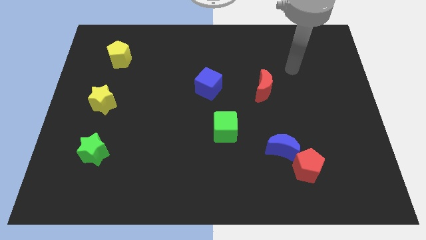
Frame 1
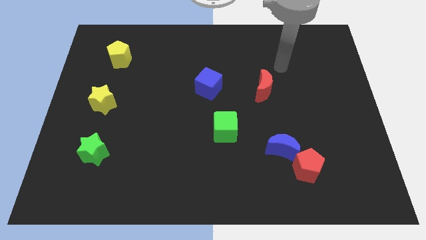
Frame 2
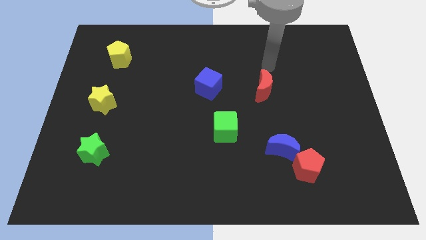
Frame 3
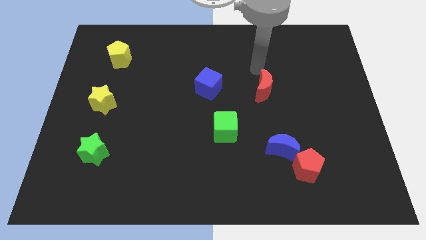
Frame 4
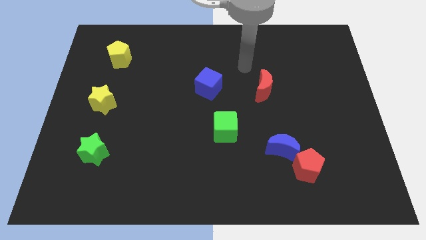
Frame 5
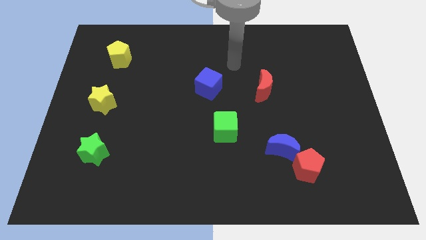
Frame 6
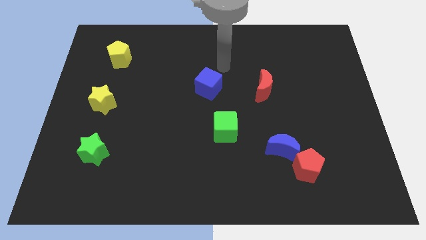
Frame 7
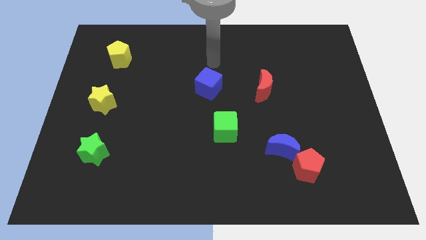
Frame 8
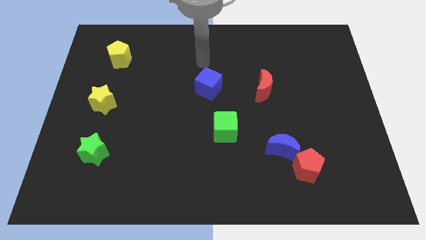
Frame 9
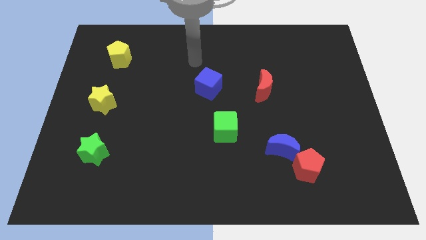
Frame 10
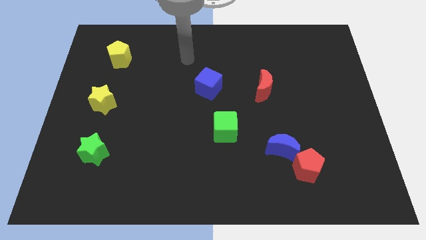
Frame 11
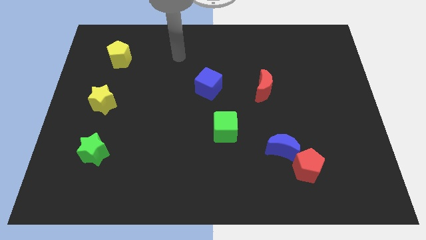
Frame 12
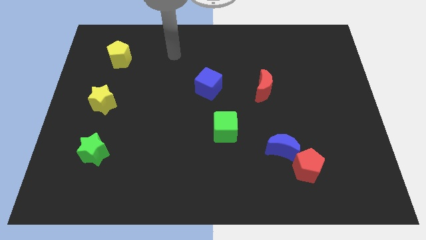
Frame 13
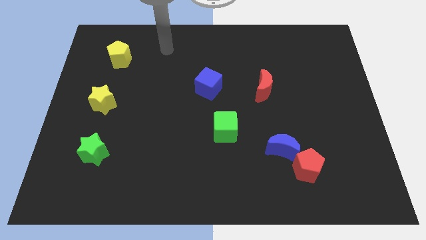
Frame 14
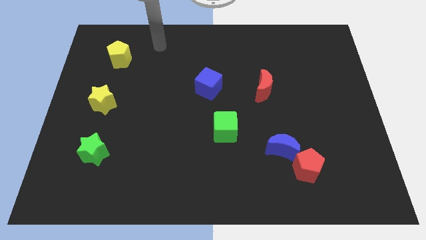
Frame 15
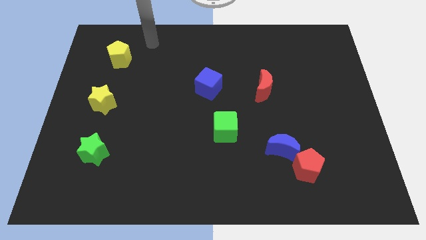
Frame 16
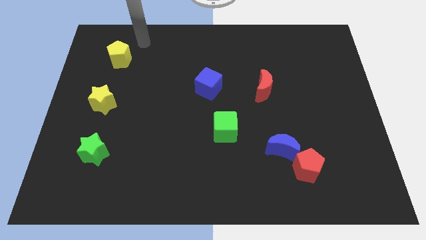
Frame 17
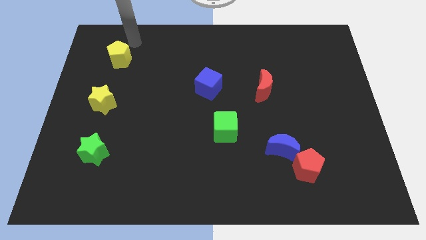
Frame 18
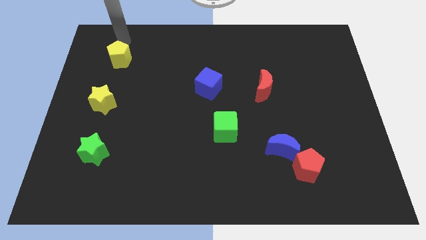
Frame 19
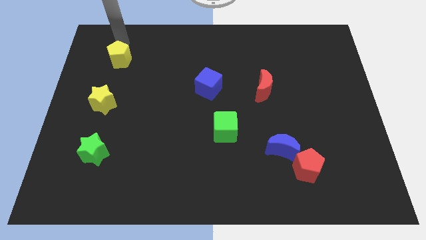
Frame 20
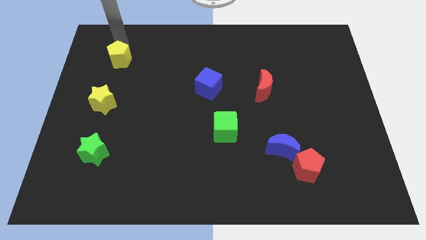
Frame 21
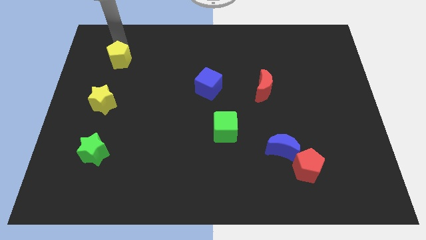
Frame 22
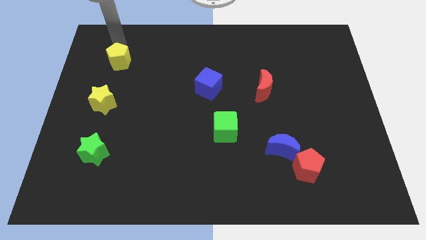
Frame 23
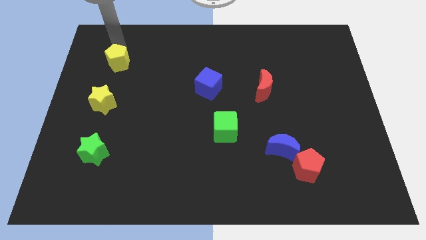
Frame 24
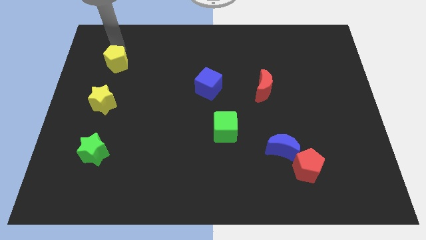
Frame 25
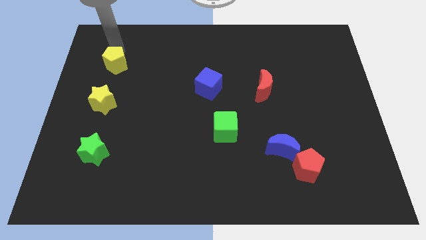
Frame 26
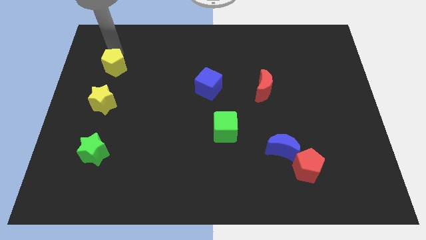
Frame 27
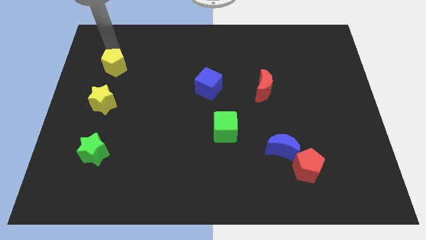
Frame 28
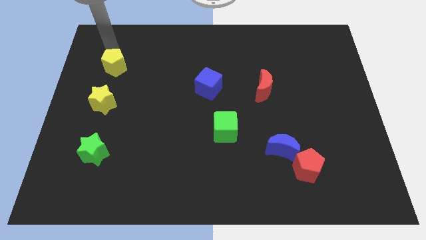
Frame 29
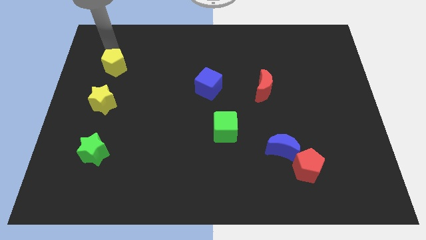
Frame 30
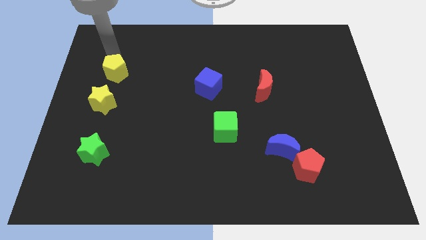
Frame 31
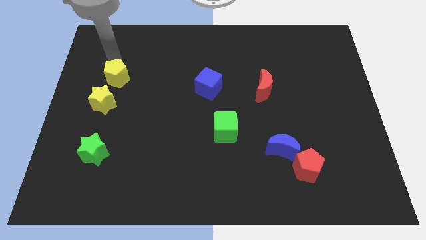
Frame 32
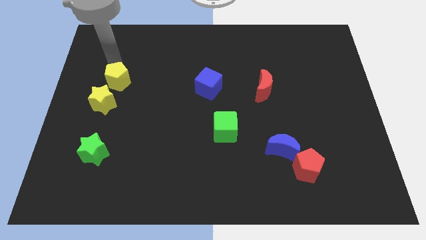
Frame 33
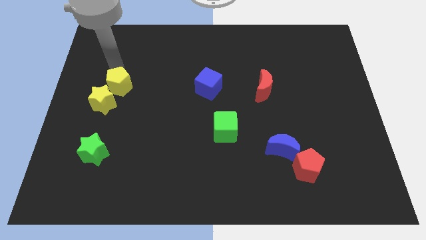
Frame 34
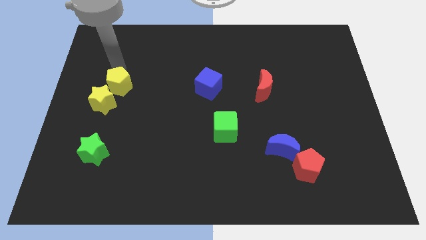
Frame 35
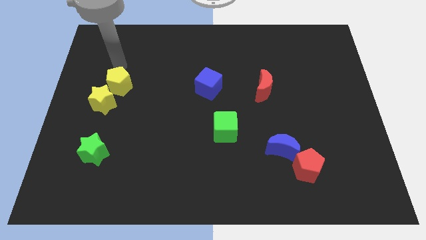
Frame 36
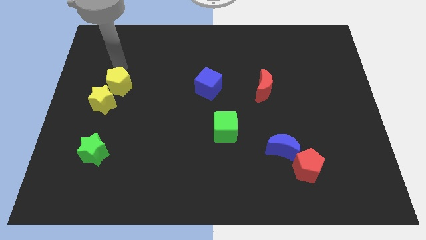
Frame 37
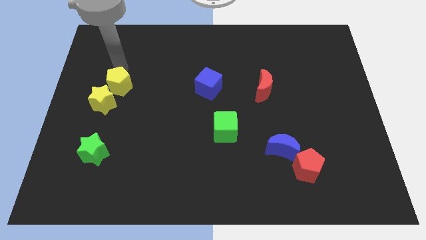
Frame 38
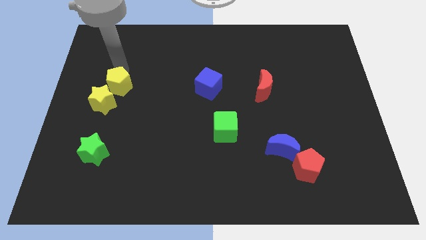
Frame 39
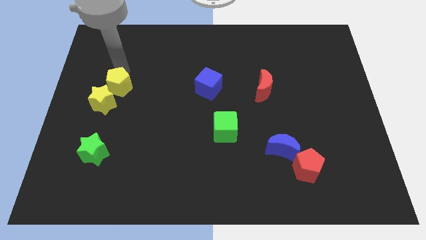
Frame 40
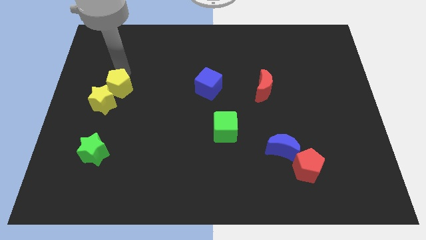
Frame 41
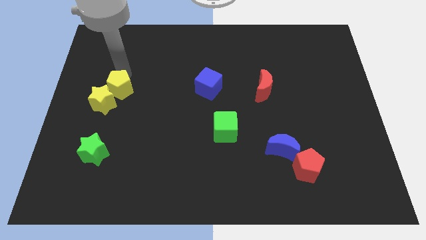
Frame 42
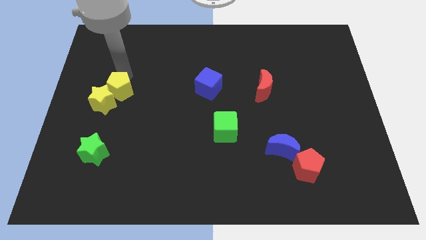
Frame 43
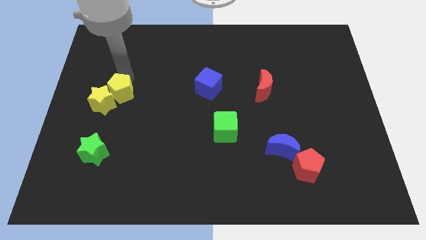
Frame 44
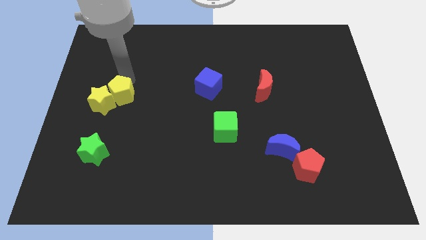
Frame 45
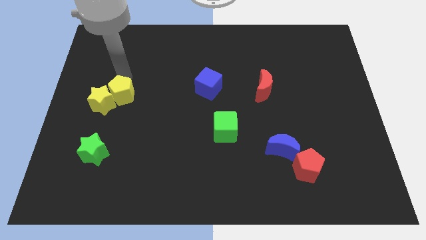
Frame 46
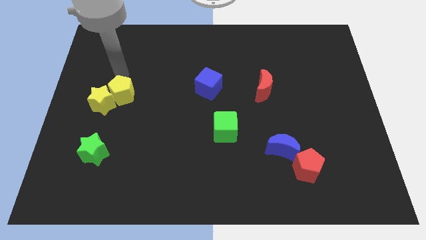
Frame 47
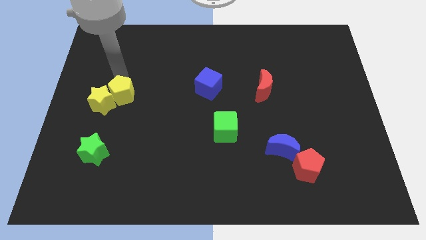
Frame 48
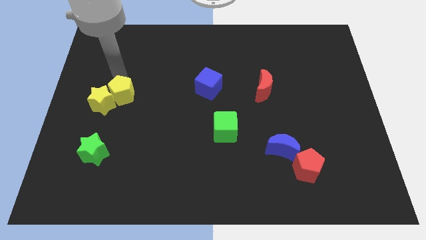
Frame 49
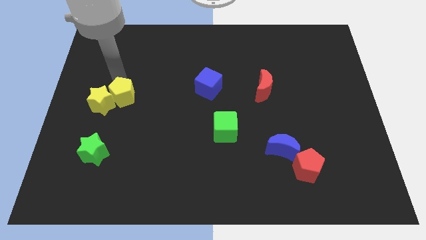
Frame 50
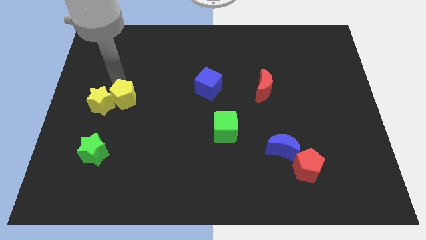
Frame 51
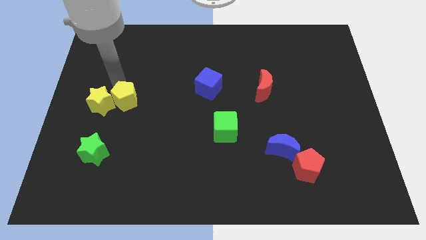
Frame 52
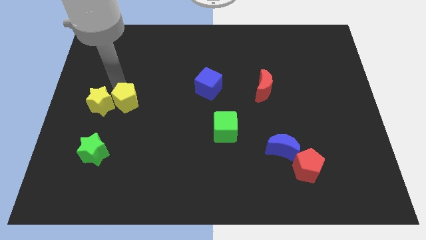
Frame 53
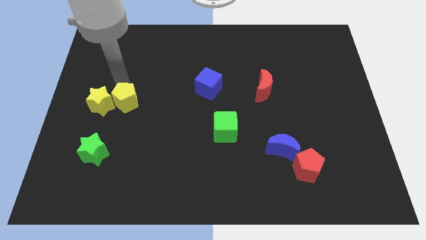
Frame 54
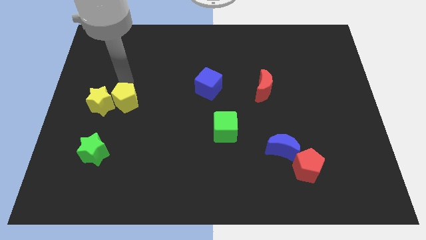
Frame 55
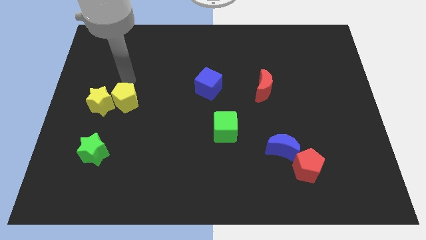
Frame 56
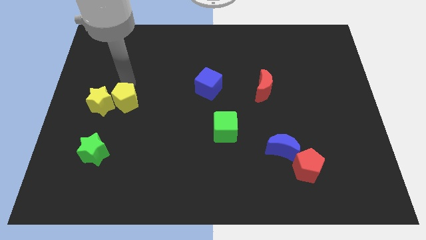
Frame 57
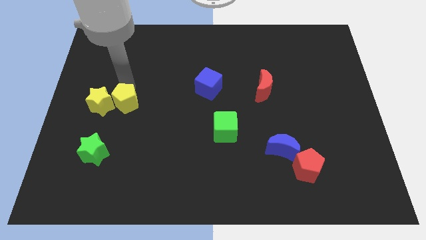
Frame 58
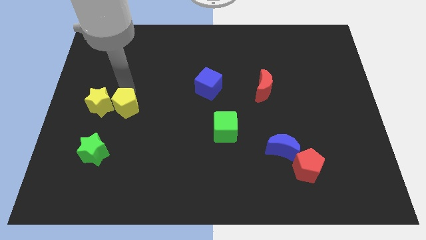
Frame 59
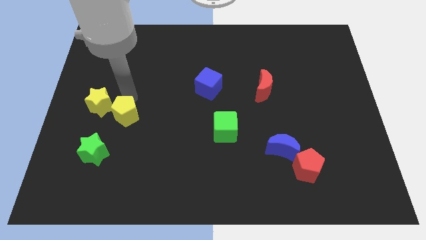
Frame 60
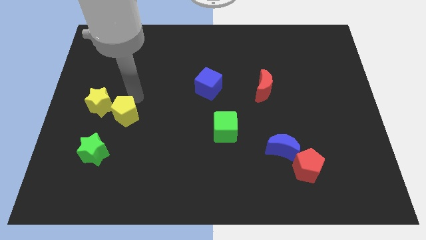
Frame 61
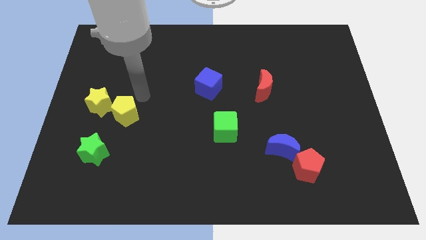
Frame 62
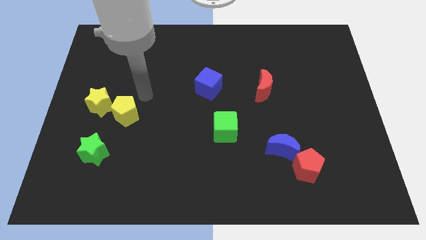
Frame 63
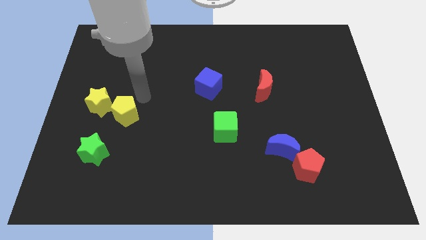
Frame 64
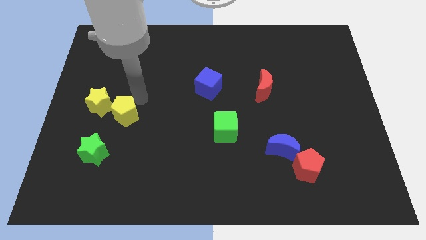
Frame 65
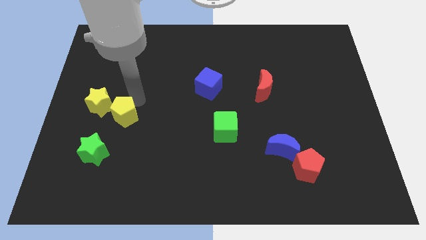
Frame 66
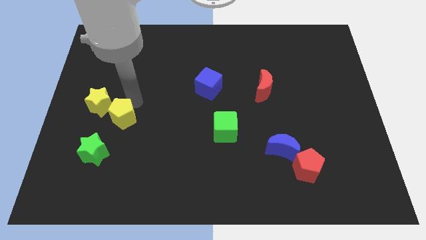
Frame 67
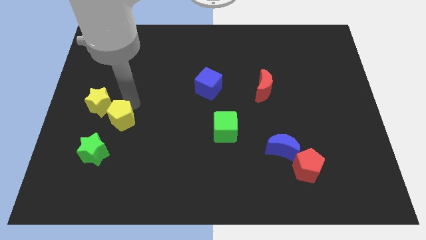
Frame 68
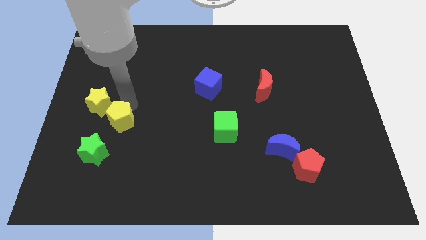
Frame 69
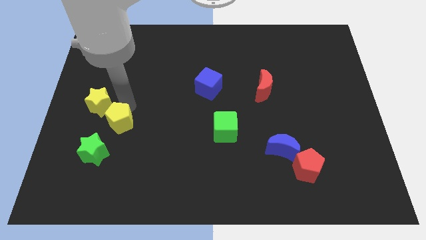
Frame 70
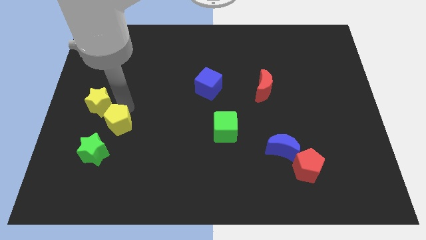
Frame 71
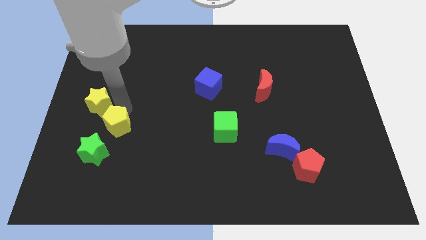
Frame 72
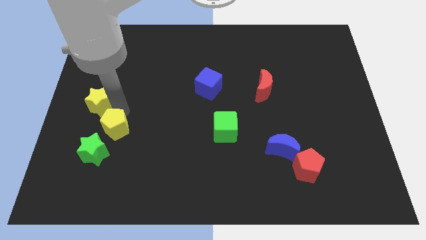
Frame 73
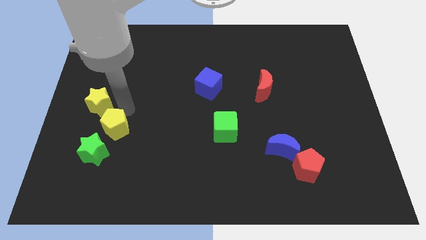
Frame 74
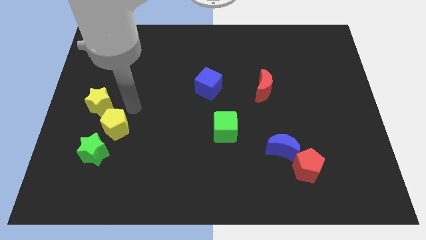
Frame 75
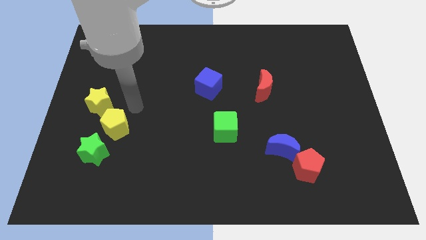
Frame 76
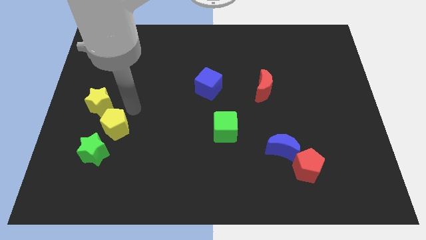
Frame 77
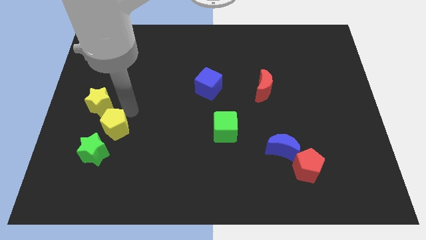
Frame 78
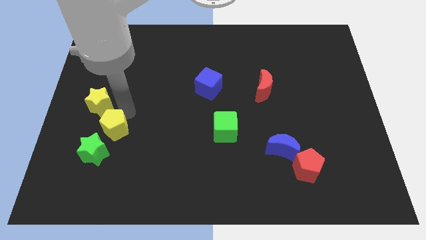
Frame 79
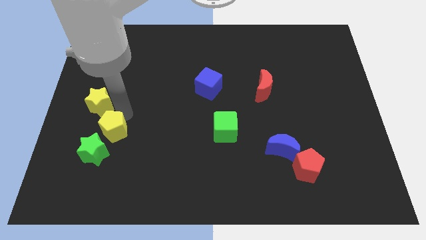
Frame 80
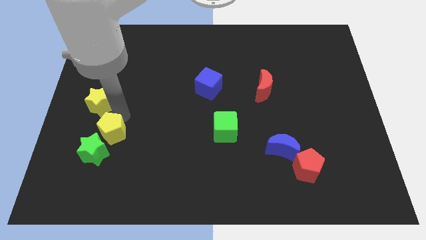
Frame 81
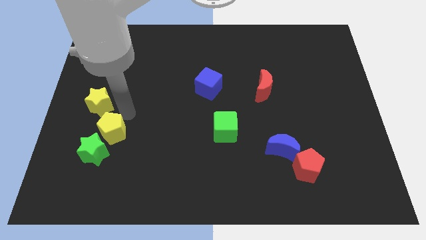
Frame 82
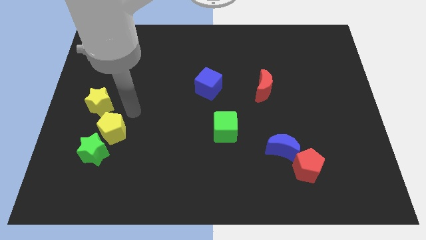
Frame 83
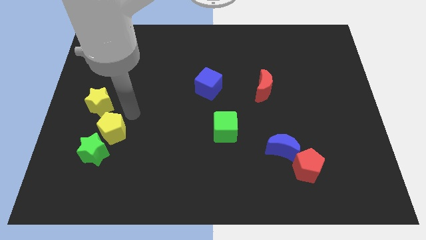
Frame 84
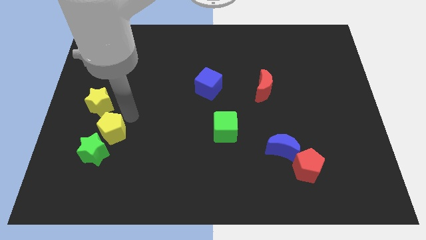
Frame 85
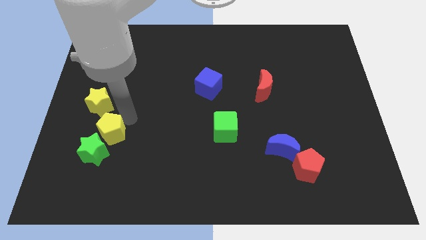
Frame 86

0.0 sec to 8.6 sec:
move the yellow pentagon next to the green star
